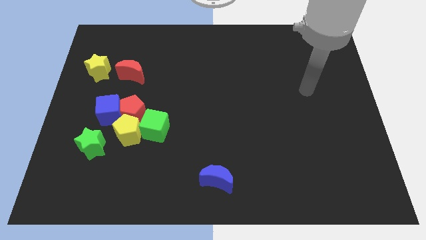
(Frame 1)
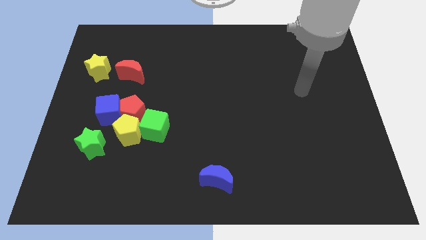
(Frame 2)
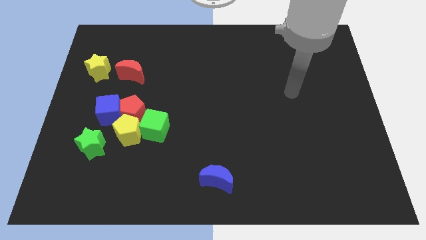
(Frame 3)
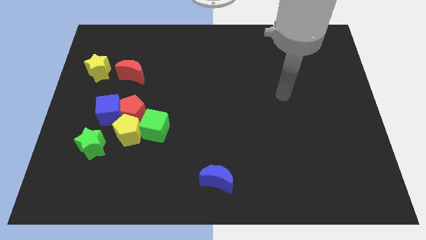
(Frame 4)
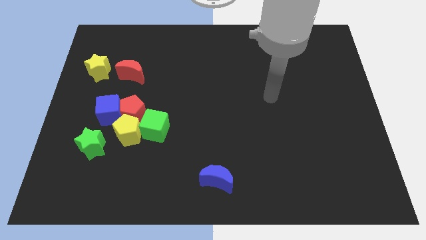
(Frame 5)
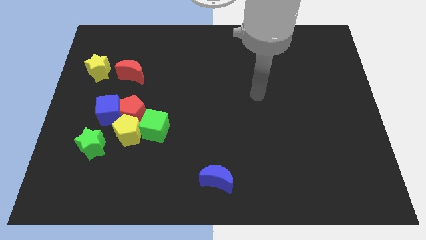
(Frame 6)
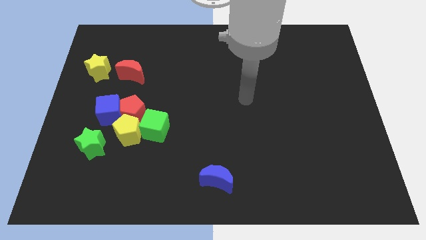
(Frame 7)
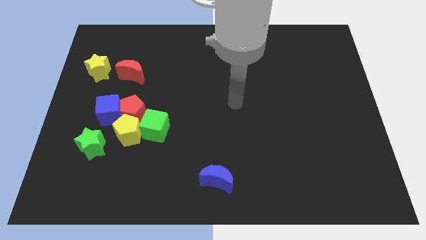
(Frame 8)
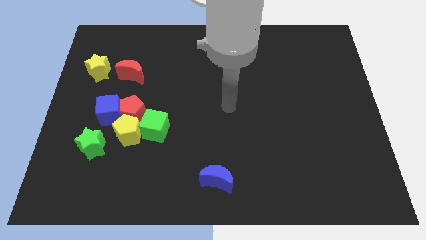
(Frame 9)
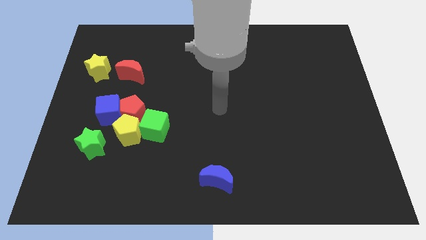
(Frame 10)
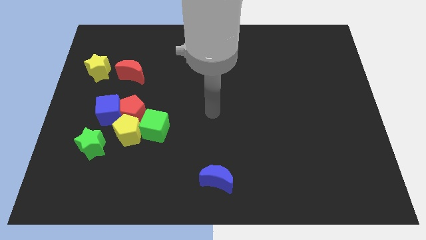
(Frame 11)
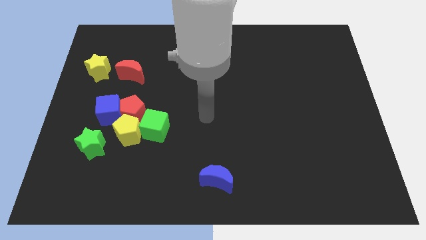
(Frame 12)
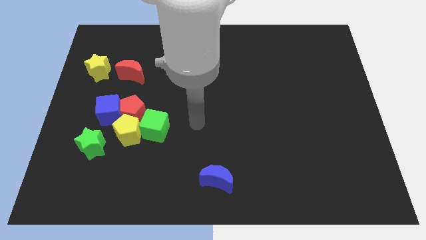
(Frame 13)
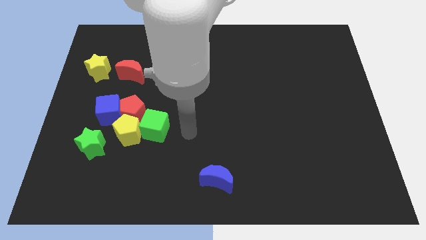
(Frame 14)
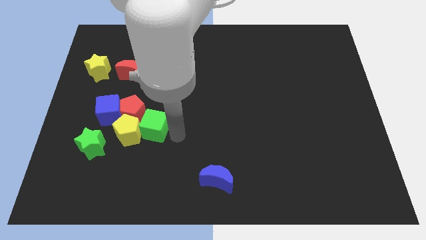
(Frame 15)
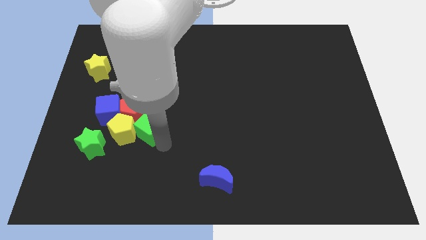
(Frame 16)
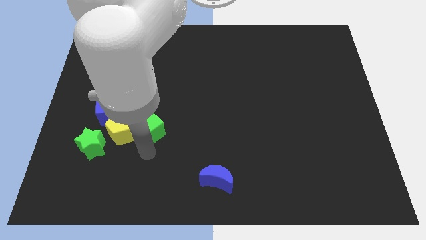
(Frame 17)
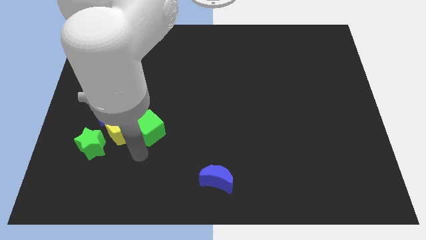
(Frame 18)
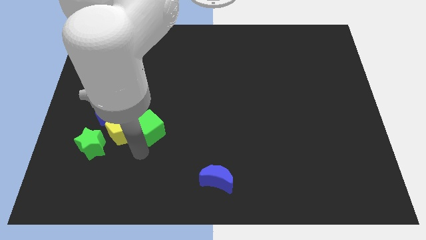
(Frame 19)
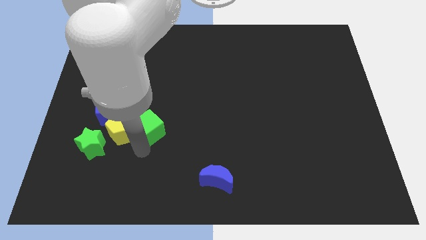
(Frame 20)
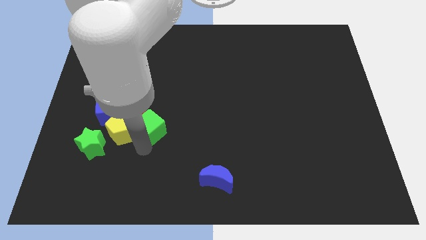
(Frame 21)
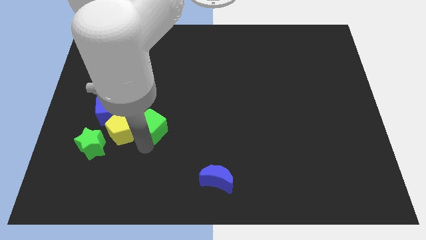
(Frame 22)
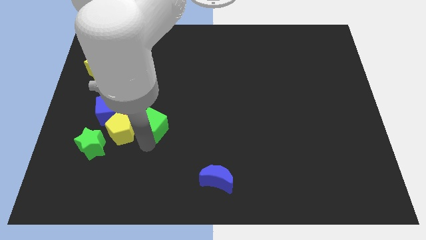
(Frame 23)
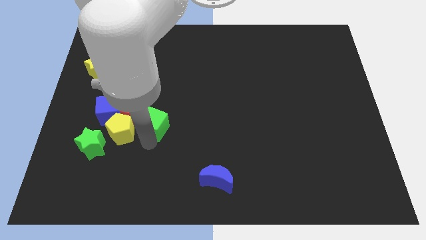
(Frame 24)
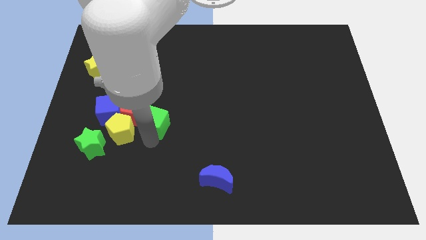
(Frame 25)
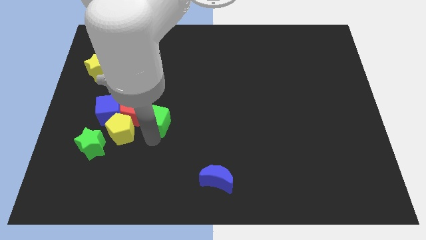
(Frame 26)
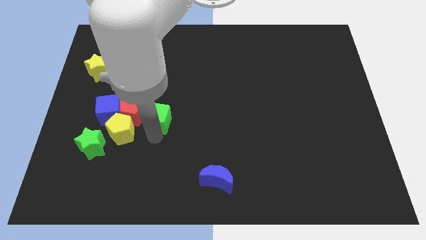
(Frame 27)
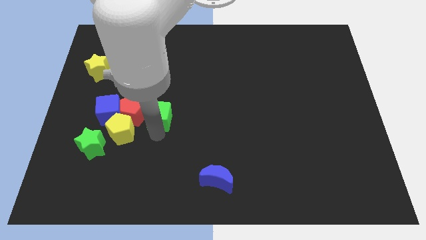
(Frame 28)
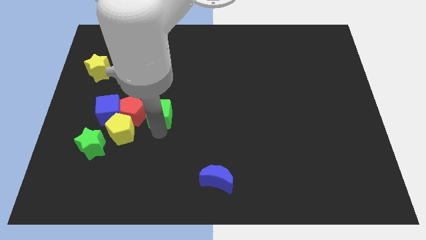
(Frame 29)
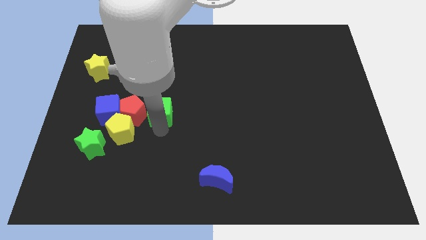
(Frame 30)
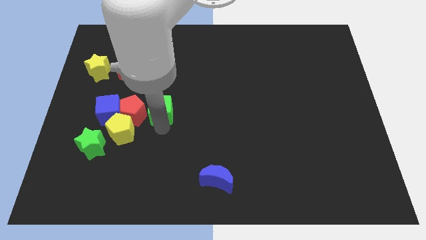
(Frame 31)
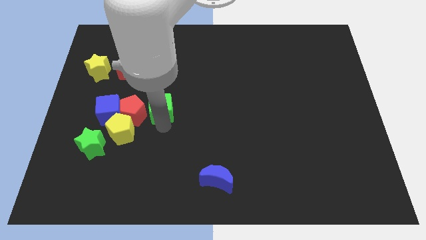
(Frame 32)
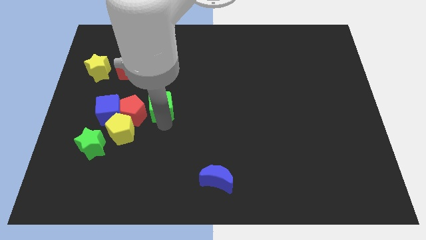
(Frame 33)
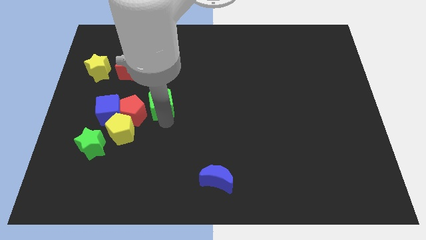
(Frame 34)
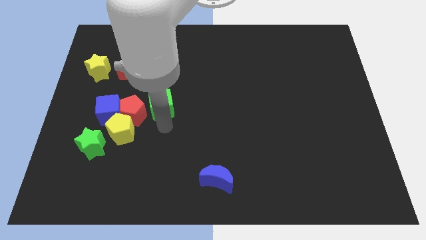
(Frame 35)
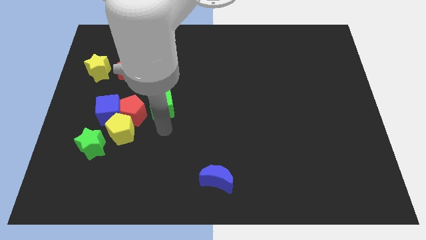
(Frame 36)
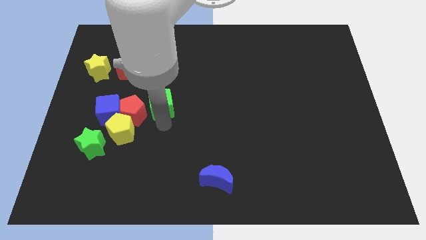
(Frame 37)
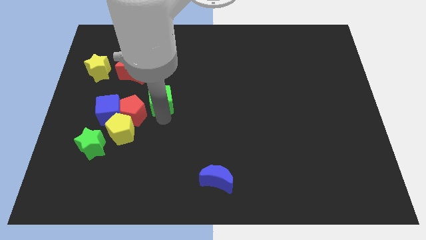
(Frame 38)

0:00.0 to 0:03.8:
push the green cube upwards slightly

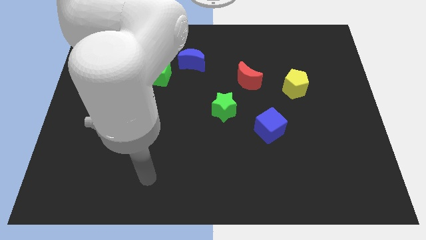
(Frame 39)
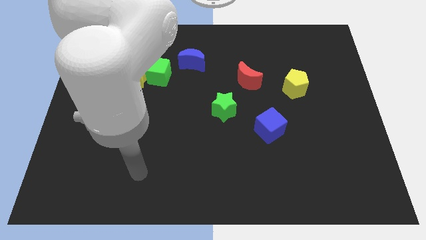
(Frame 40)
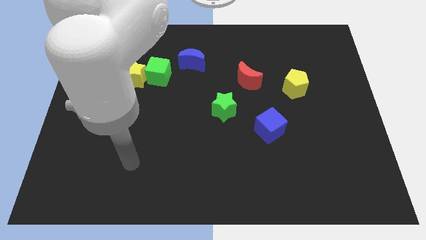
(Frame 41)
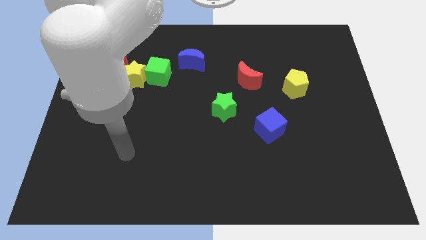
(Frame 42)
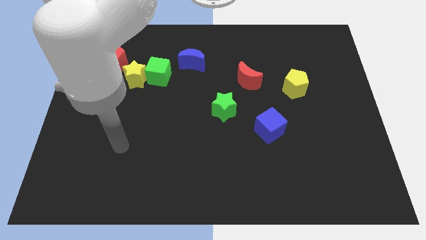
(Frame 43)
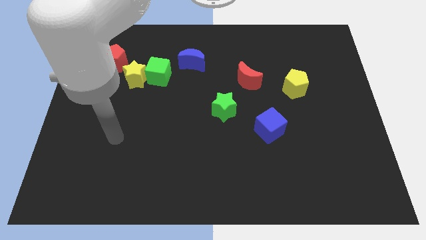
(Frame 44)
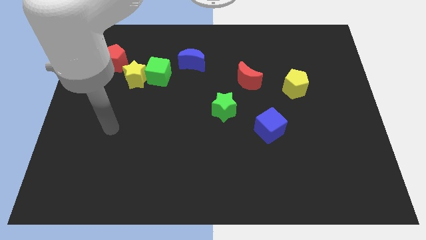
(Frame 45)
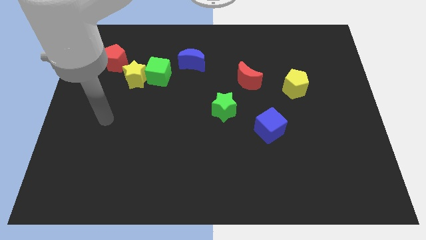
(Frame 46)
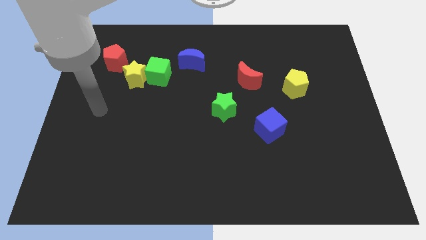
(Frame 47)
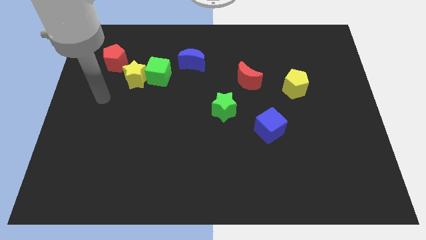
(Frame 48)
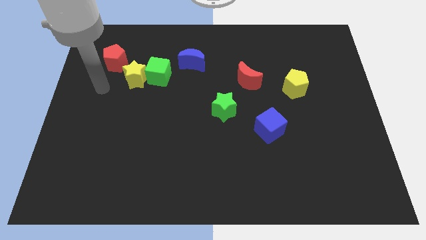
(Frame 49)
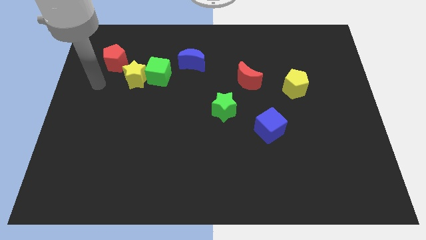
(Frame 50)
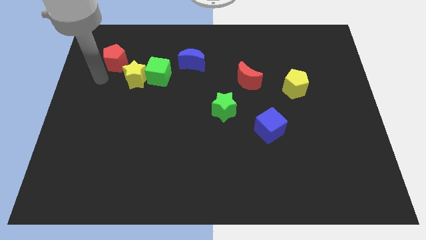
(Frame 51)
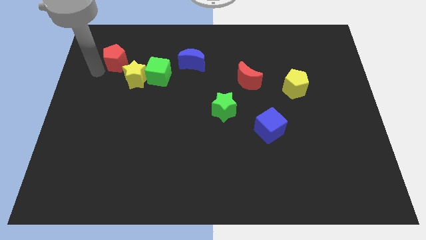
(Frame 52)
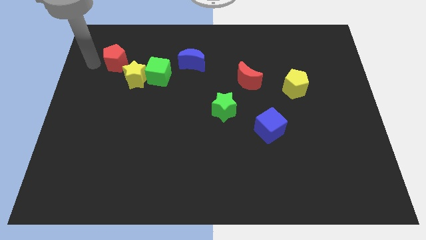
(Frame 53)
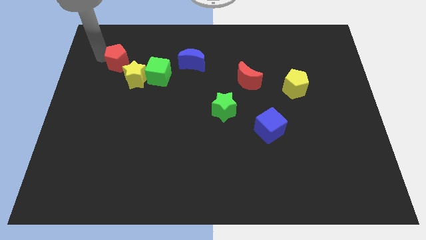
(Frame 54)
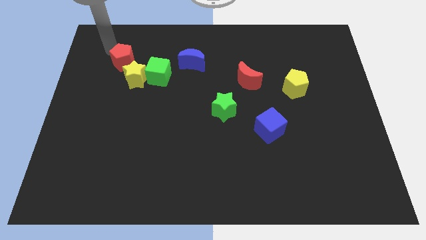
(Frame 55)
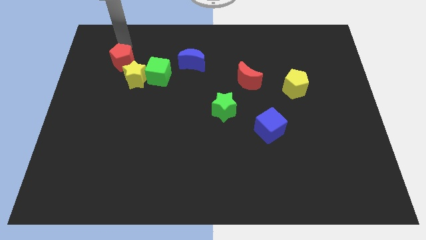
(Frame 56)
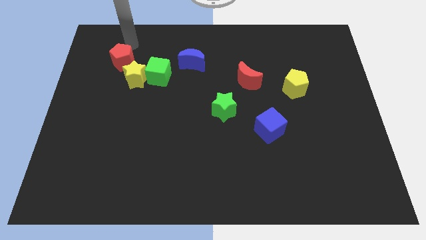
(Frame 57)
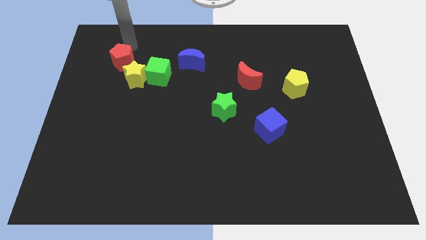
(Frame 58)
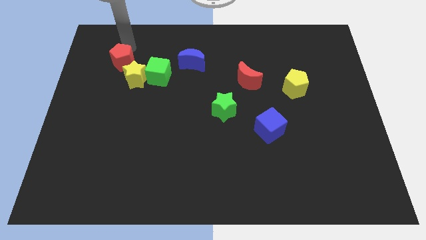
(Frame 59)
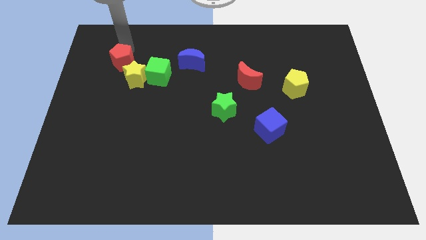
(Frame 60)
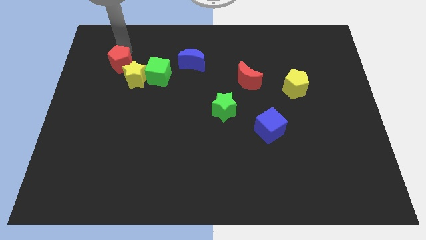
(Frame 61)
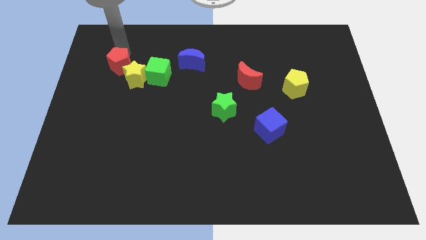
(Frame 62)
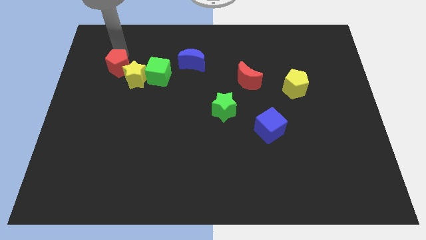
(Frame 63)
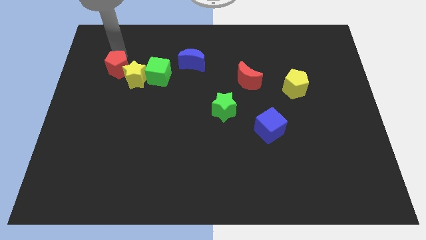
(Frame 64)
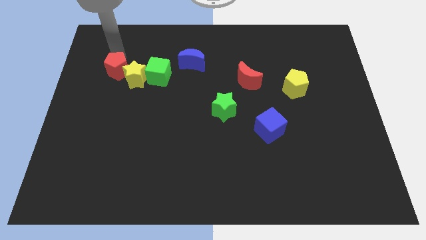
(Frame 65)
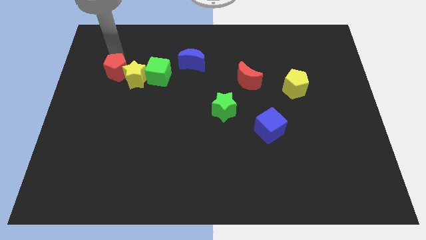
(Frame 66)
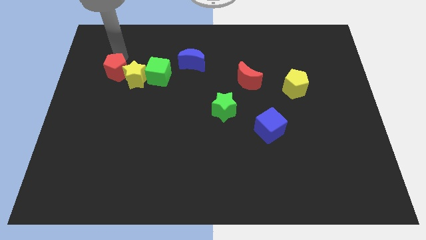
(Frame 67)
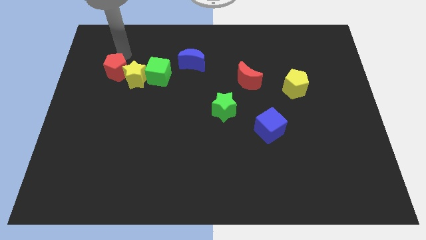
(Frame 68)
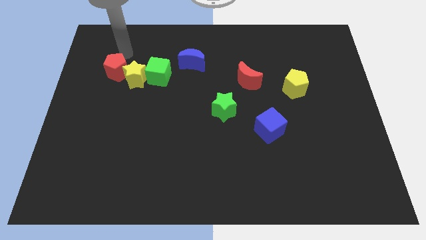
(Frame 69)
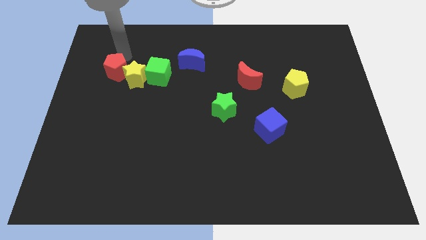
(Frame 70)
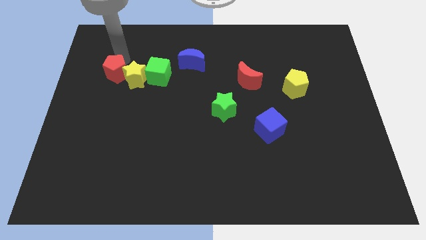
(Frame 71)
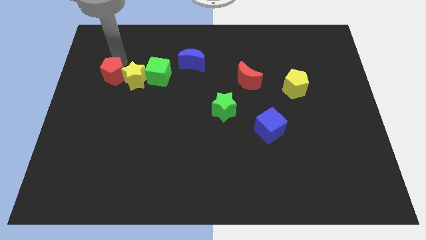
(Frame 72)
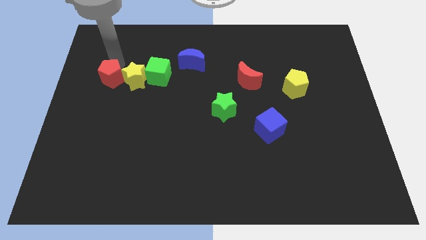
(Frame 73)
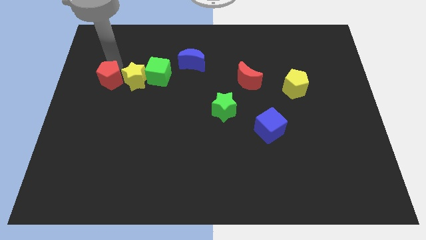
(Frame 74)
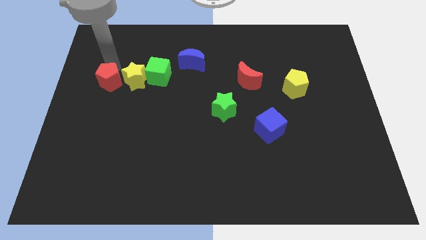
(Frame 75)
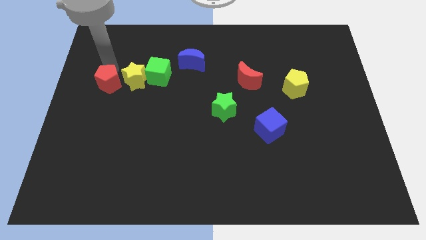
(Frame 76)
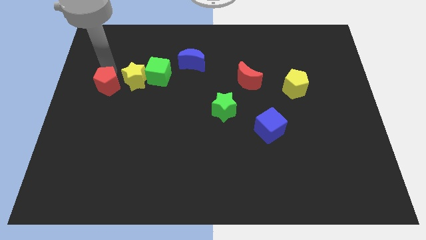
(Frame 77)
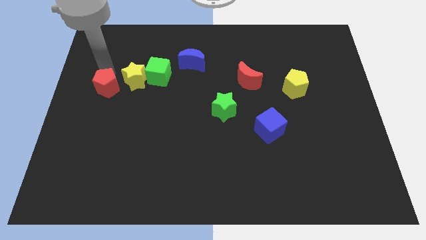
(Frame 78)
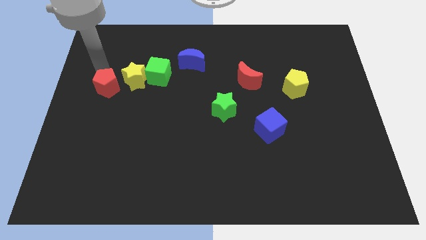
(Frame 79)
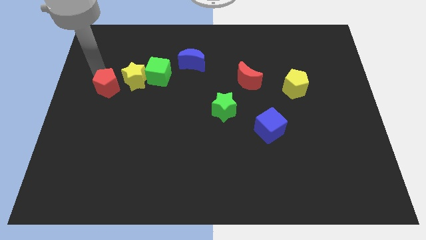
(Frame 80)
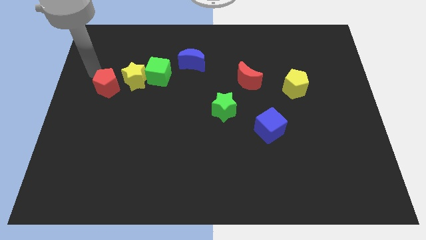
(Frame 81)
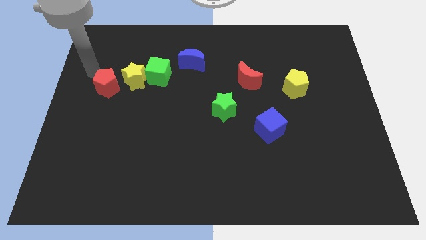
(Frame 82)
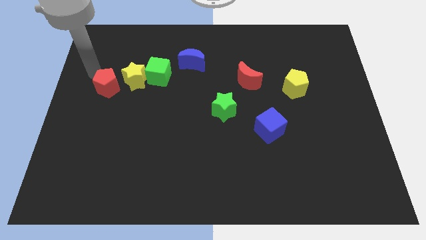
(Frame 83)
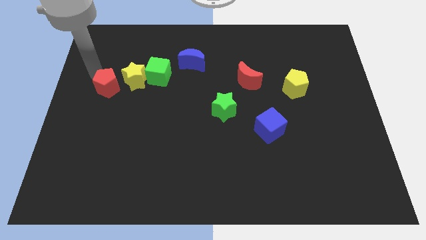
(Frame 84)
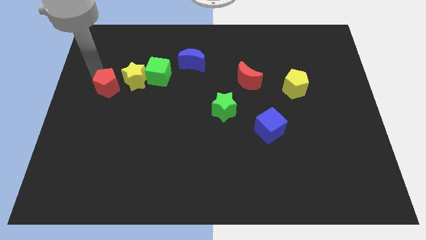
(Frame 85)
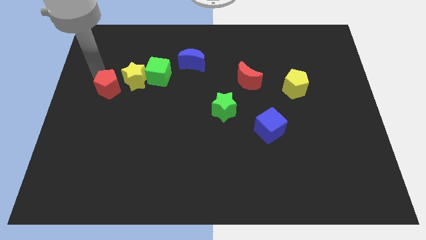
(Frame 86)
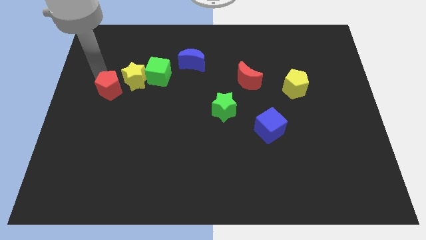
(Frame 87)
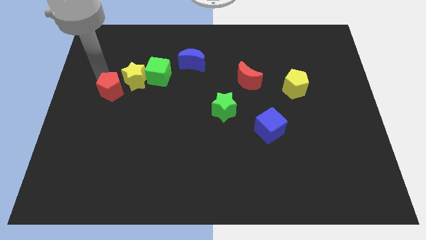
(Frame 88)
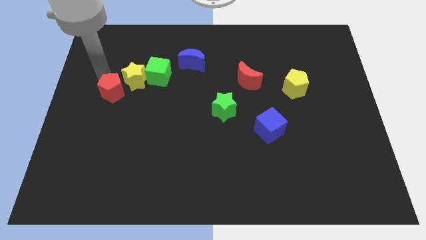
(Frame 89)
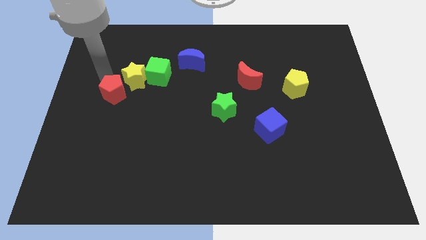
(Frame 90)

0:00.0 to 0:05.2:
move the red pentagon down and to the right somewhat
